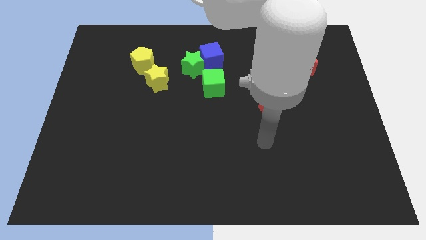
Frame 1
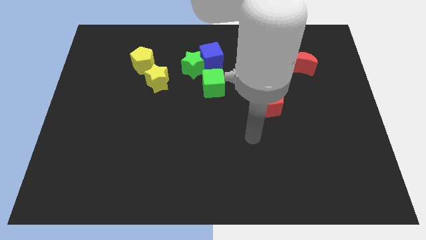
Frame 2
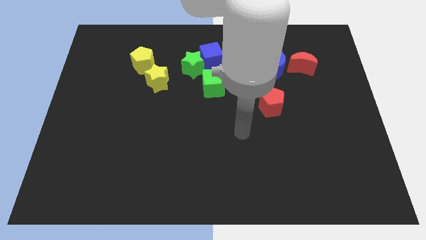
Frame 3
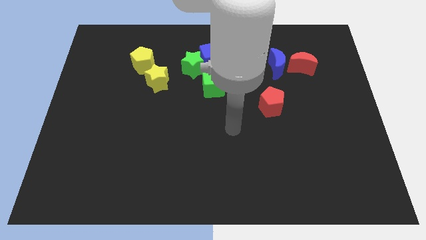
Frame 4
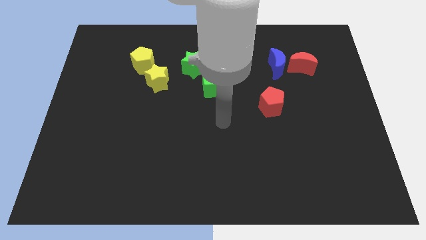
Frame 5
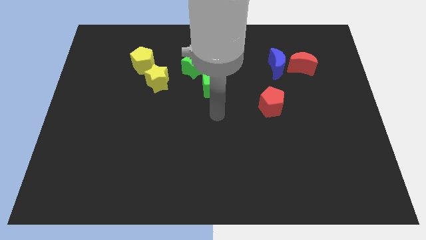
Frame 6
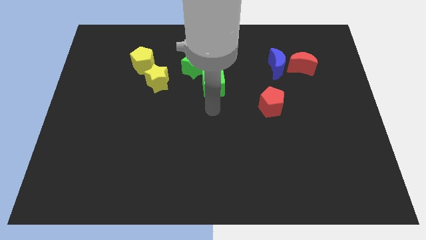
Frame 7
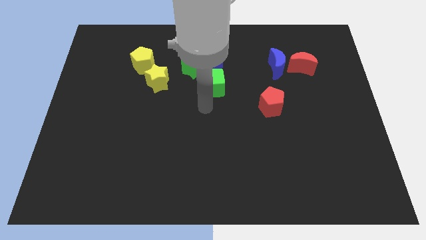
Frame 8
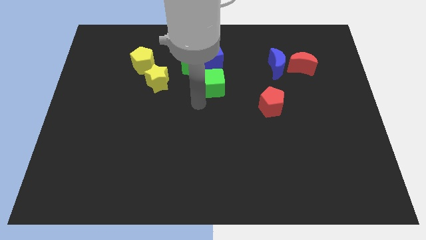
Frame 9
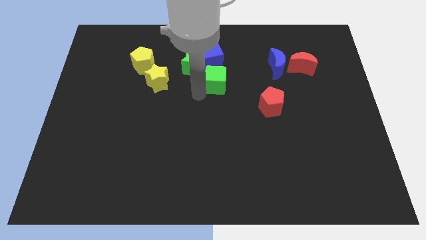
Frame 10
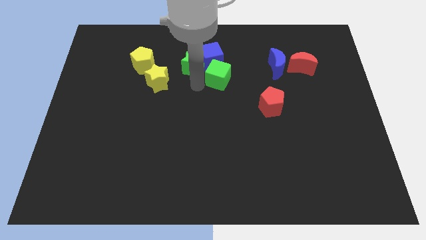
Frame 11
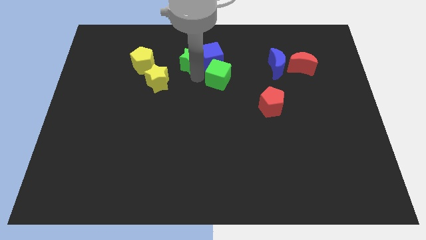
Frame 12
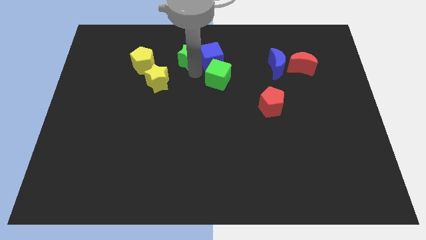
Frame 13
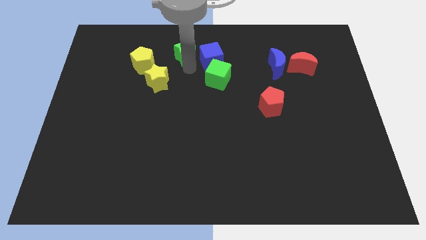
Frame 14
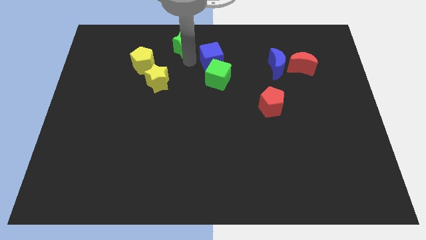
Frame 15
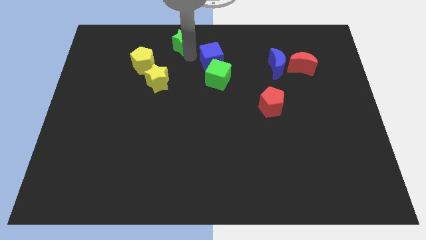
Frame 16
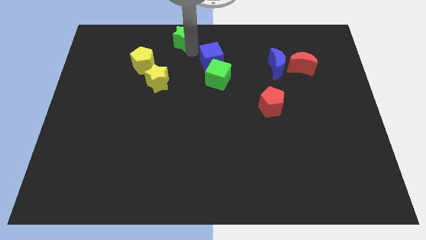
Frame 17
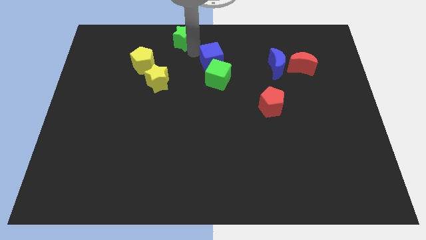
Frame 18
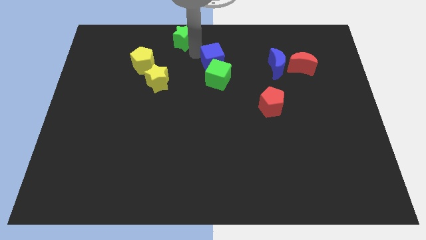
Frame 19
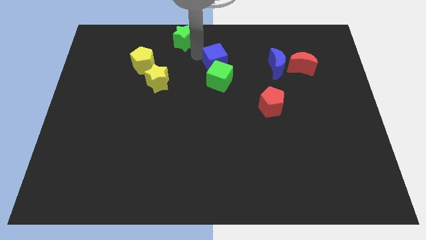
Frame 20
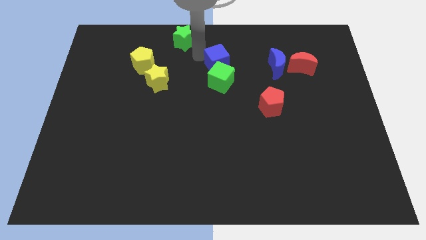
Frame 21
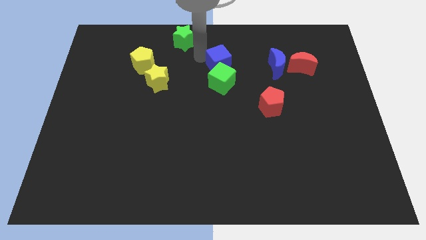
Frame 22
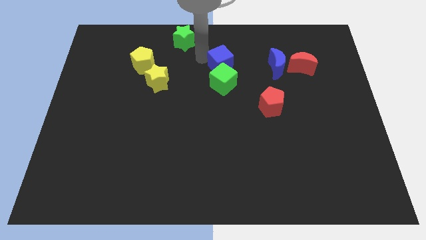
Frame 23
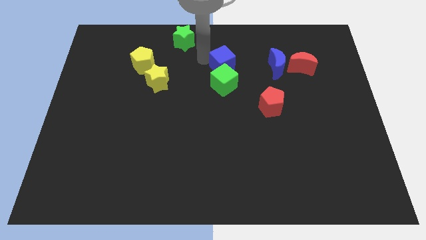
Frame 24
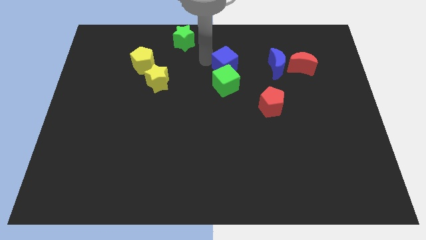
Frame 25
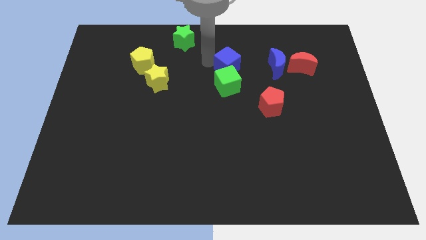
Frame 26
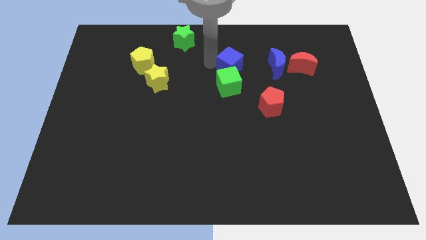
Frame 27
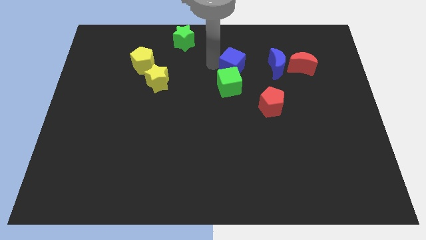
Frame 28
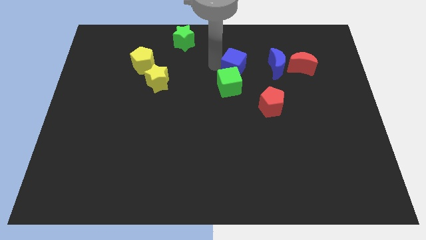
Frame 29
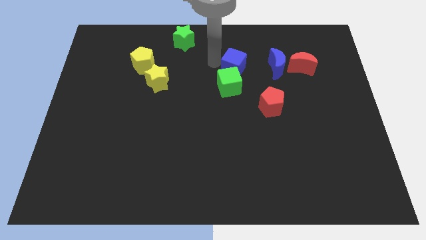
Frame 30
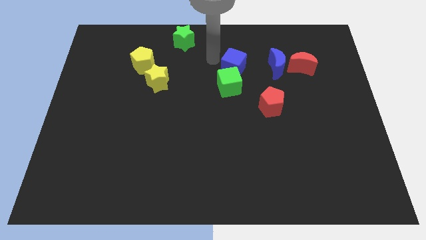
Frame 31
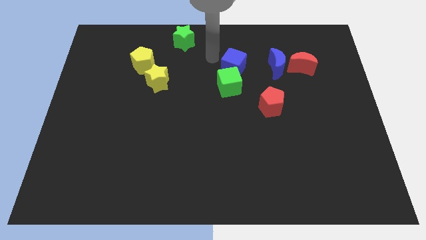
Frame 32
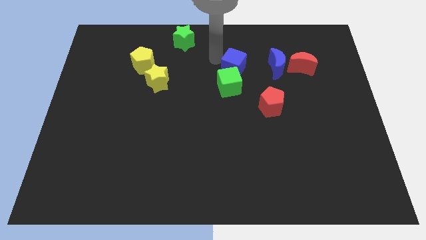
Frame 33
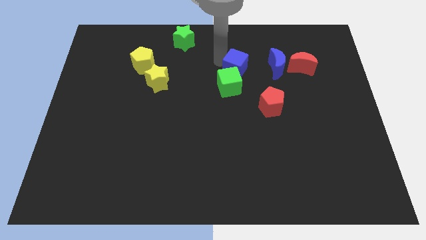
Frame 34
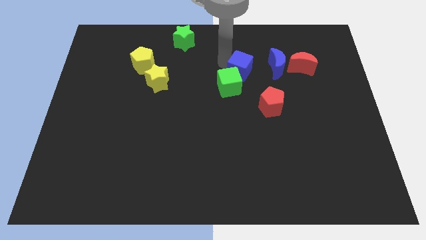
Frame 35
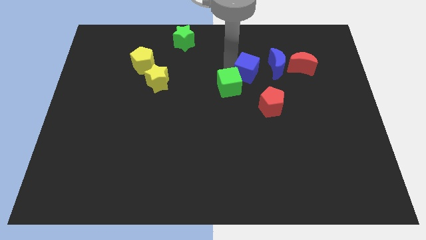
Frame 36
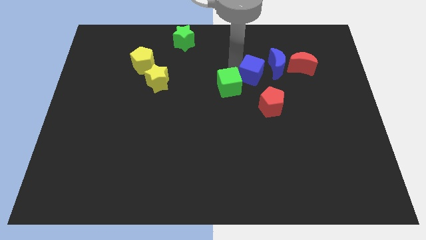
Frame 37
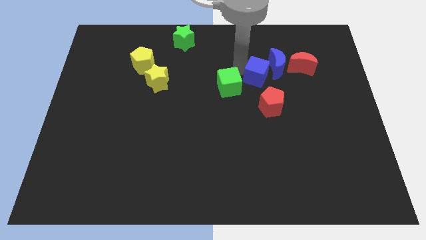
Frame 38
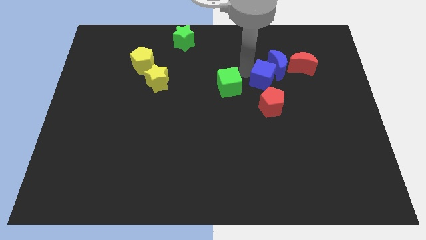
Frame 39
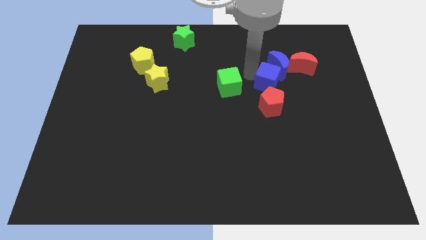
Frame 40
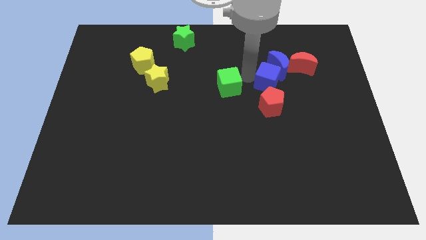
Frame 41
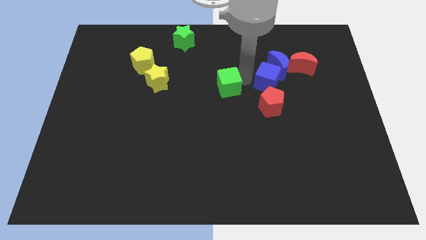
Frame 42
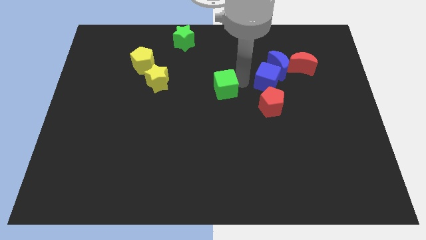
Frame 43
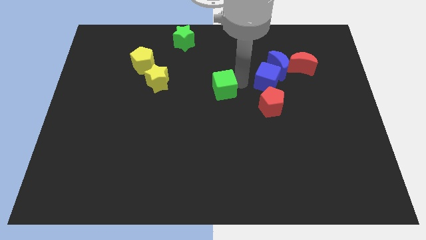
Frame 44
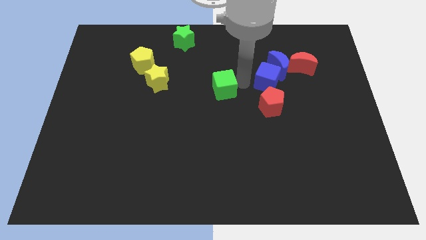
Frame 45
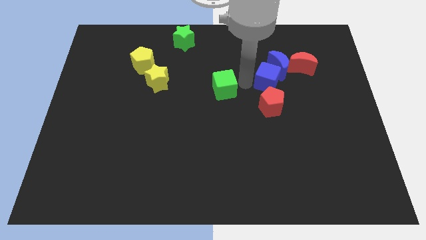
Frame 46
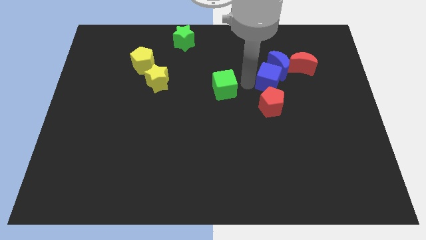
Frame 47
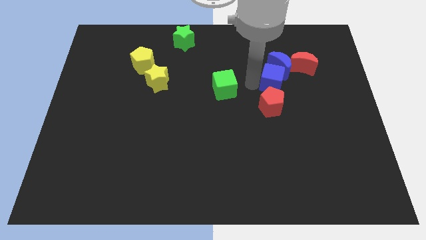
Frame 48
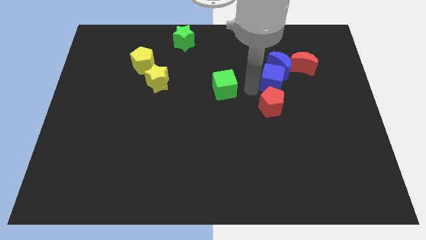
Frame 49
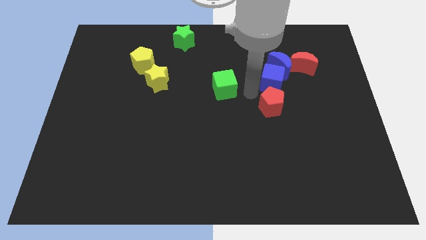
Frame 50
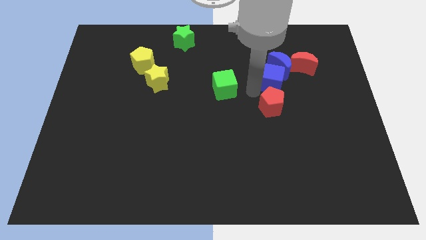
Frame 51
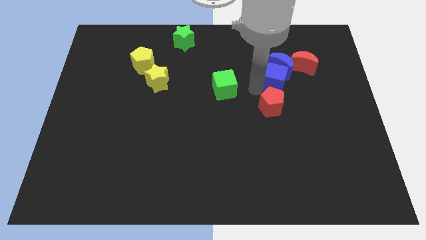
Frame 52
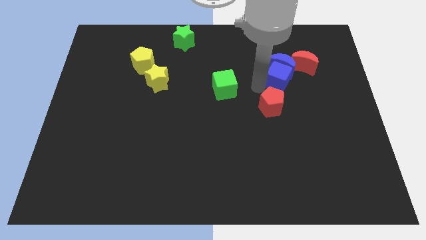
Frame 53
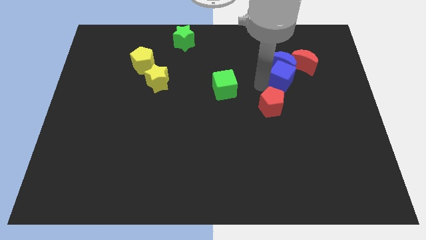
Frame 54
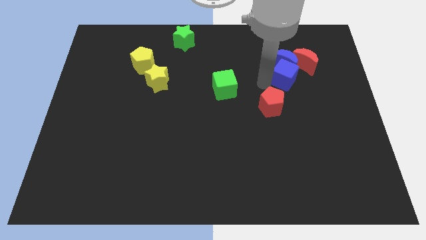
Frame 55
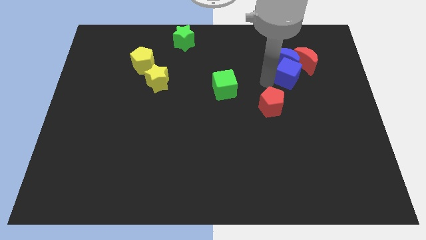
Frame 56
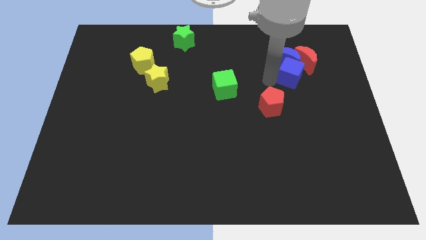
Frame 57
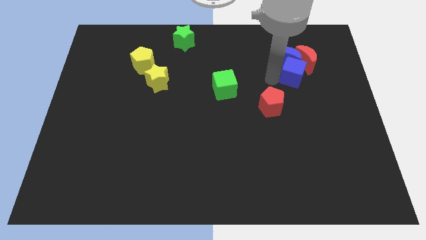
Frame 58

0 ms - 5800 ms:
slide the blue cube close to the red moon

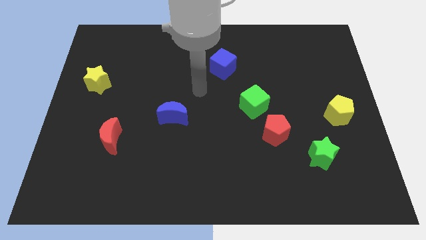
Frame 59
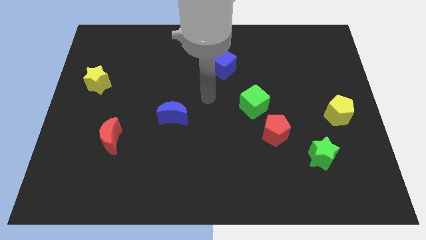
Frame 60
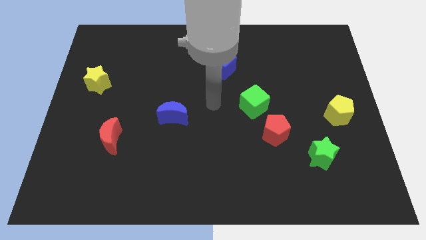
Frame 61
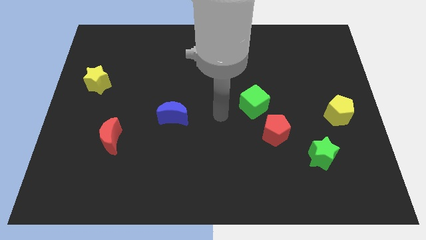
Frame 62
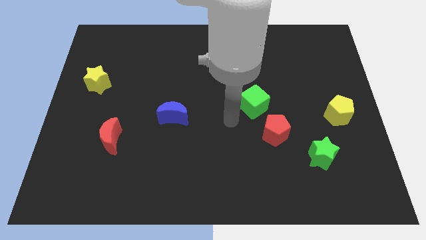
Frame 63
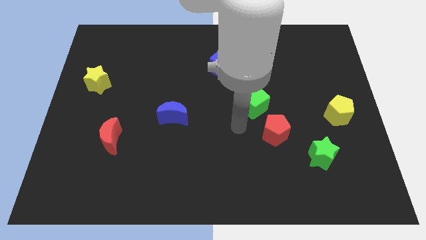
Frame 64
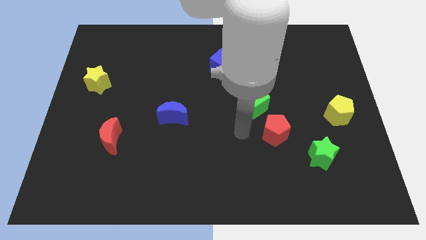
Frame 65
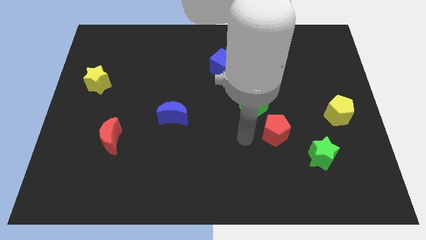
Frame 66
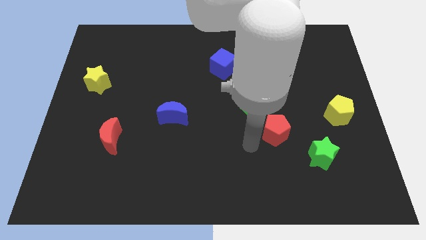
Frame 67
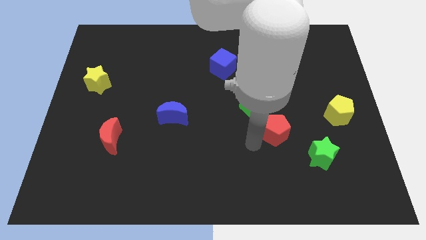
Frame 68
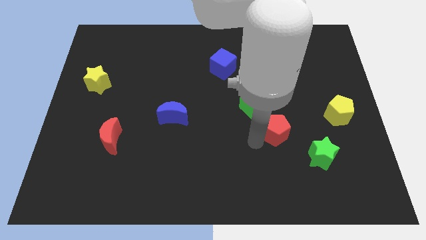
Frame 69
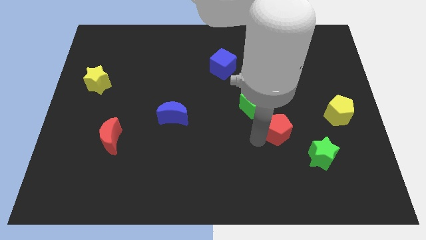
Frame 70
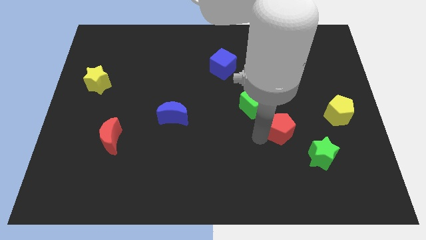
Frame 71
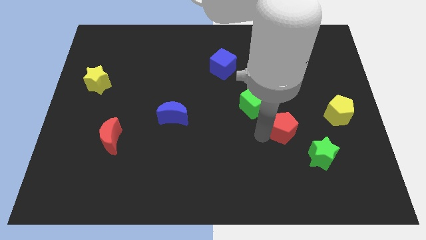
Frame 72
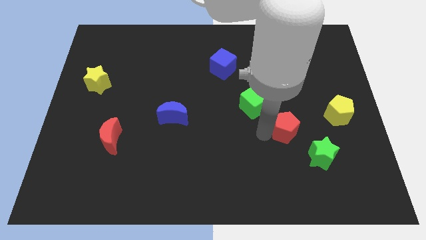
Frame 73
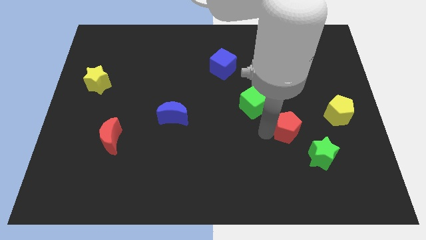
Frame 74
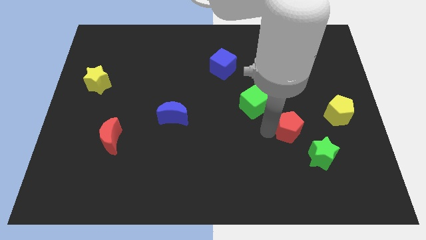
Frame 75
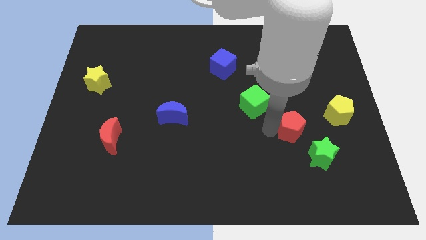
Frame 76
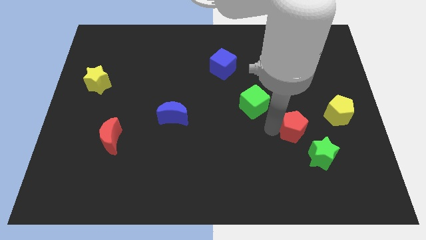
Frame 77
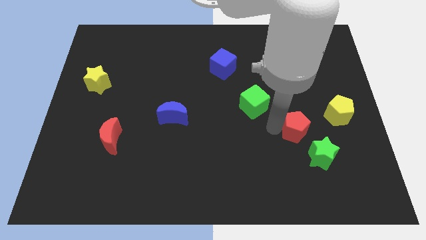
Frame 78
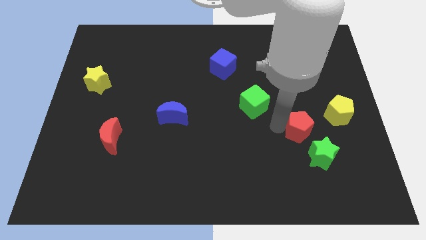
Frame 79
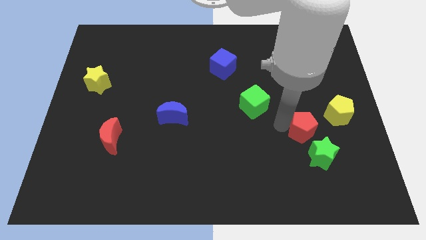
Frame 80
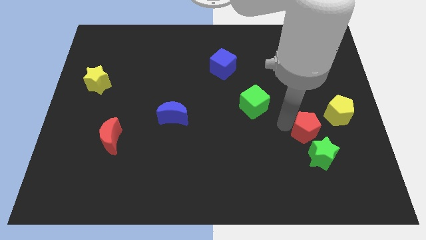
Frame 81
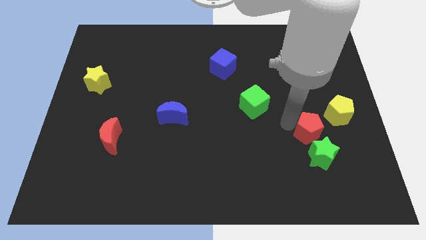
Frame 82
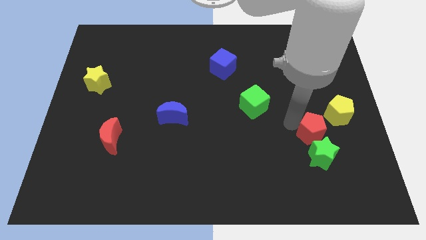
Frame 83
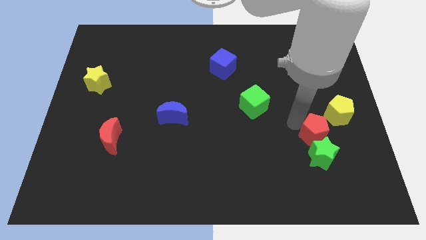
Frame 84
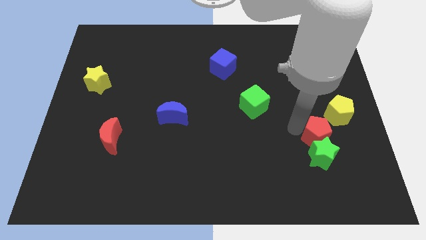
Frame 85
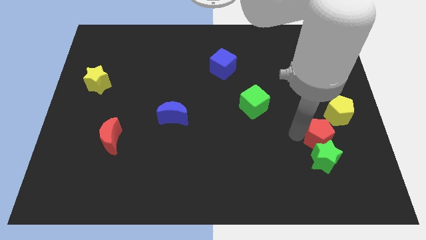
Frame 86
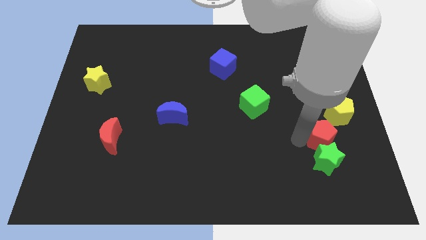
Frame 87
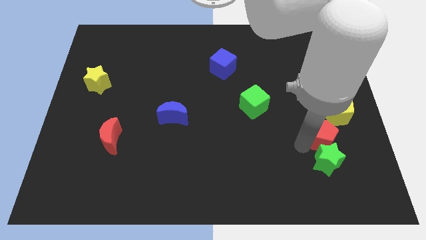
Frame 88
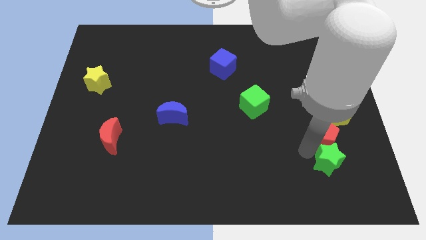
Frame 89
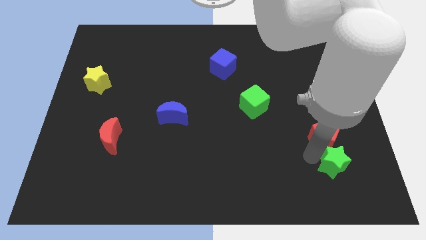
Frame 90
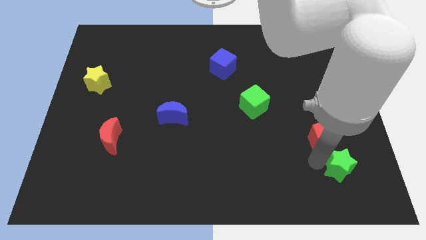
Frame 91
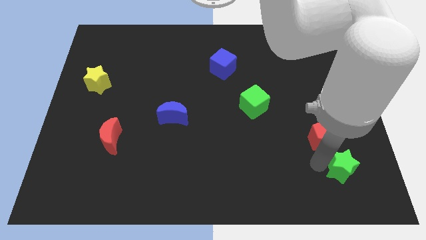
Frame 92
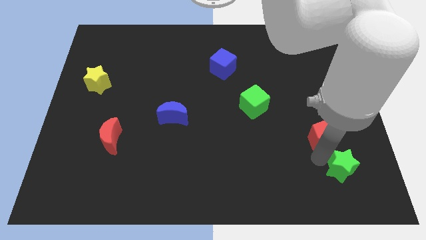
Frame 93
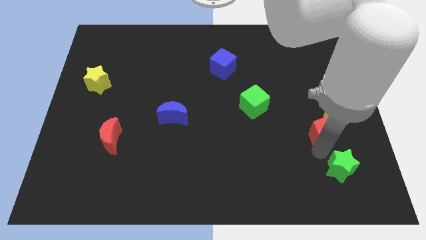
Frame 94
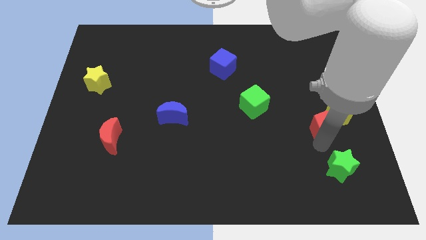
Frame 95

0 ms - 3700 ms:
move the red pentagon close to the yellow pentagon
